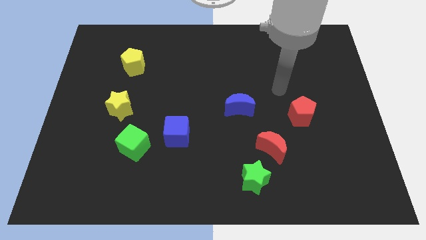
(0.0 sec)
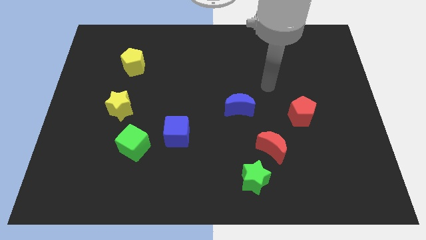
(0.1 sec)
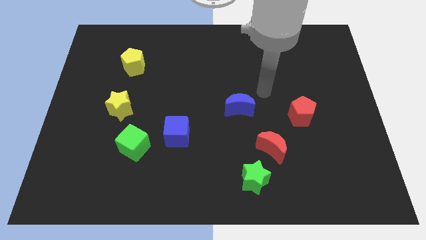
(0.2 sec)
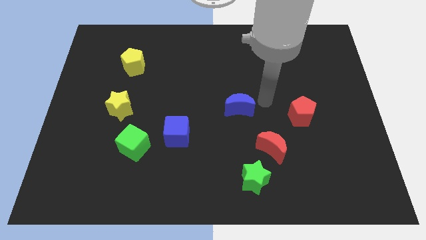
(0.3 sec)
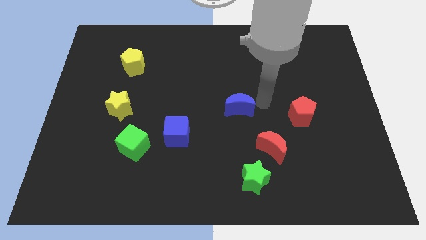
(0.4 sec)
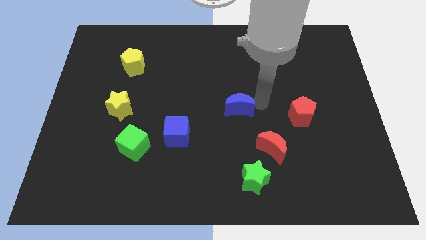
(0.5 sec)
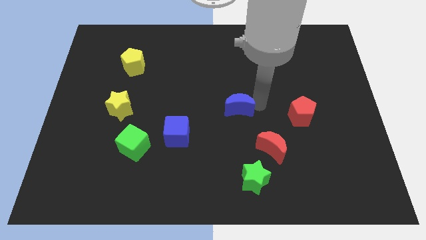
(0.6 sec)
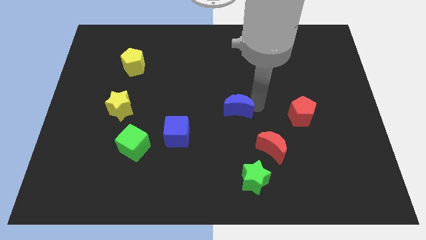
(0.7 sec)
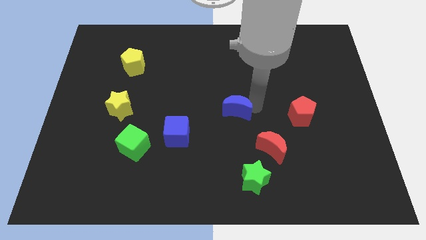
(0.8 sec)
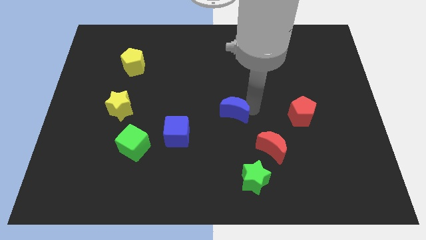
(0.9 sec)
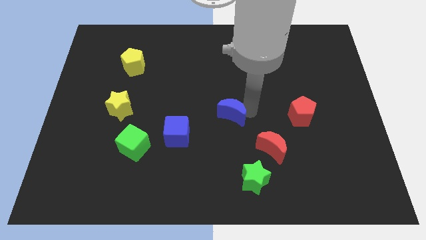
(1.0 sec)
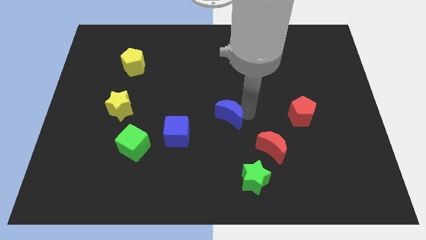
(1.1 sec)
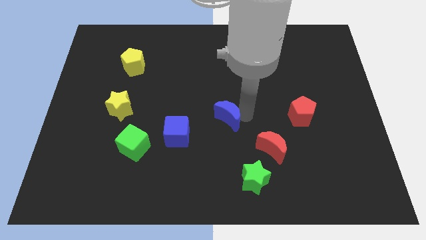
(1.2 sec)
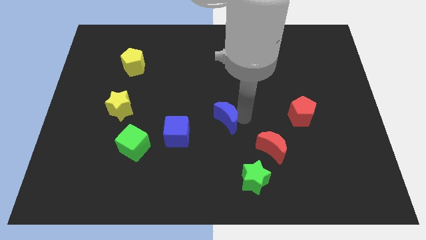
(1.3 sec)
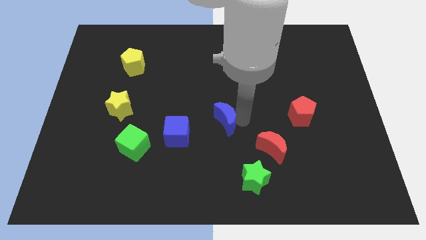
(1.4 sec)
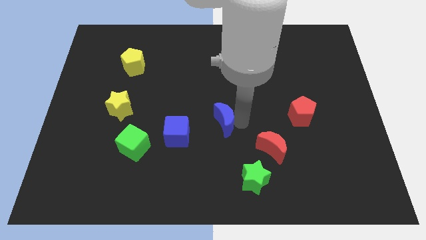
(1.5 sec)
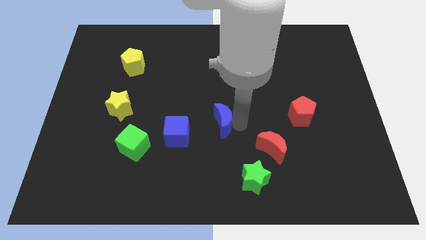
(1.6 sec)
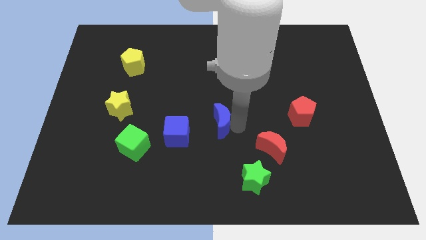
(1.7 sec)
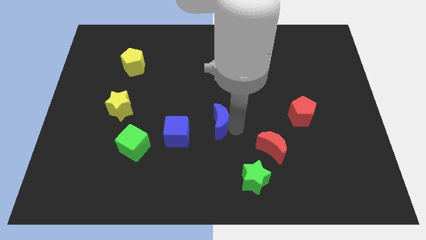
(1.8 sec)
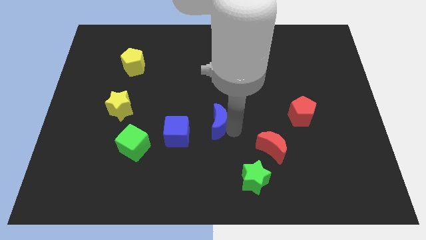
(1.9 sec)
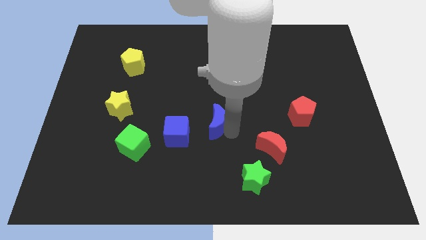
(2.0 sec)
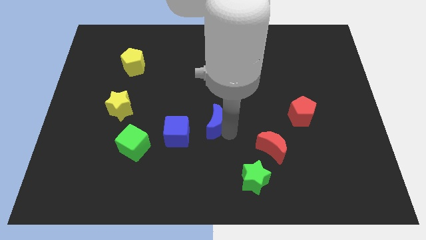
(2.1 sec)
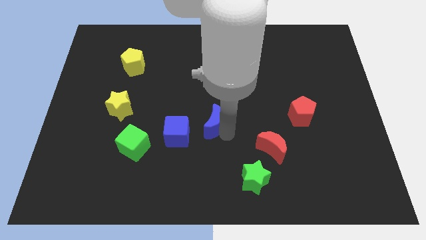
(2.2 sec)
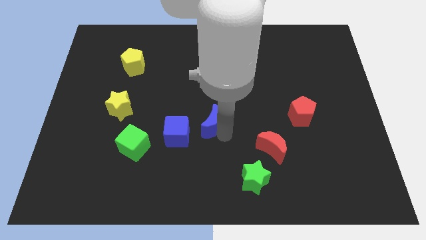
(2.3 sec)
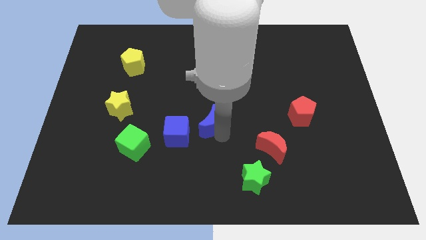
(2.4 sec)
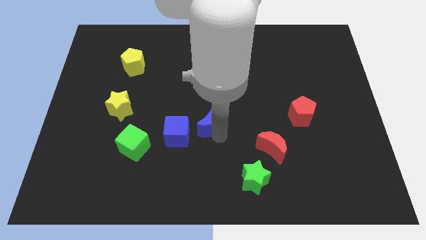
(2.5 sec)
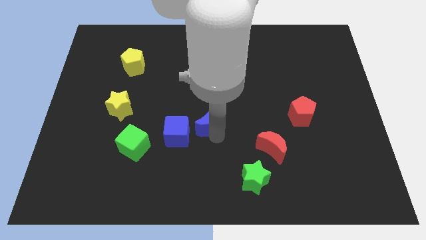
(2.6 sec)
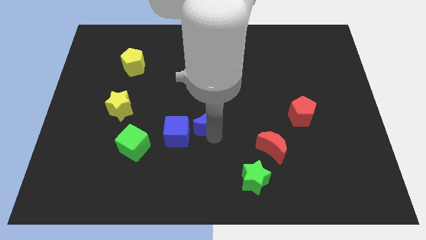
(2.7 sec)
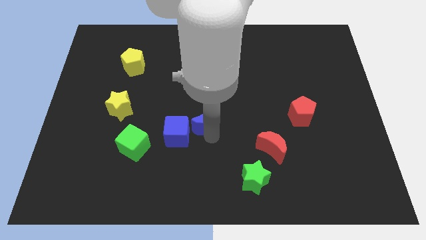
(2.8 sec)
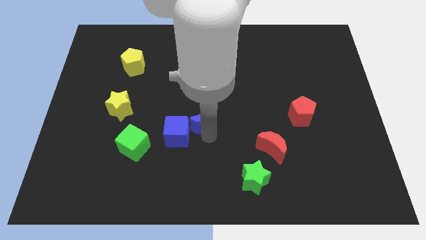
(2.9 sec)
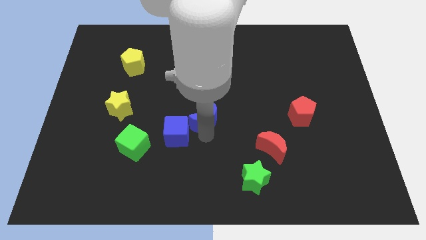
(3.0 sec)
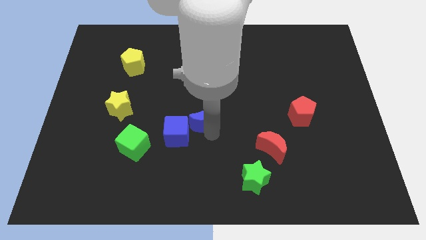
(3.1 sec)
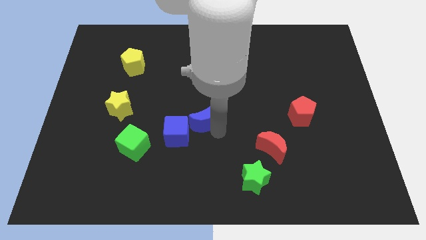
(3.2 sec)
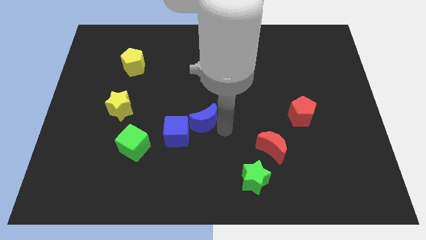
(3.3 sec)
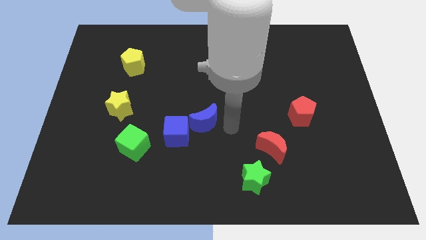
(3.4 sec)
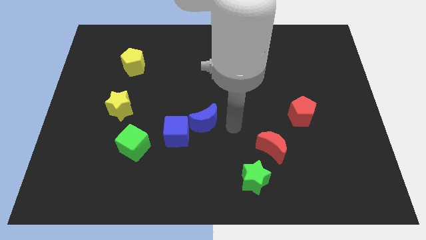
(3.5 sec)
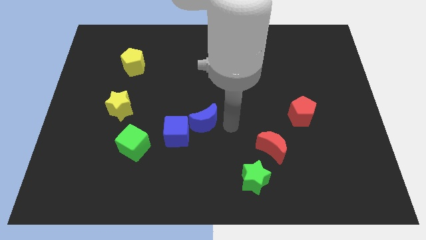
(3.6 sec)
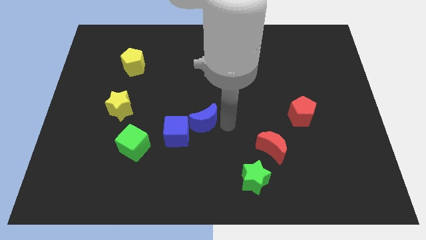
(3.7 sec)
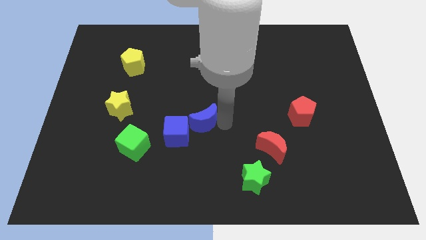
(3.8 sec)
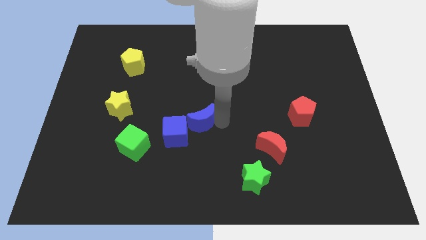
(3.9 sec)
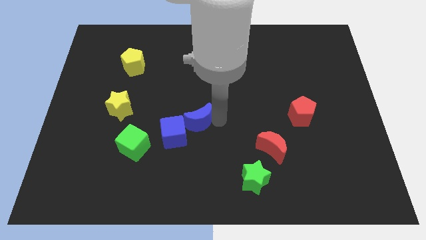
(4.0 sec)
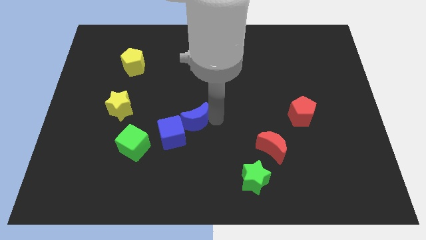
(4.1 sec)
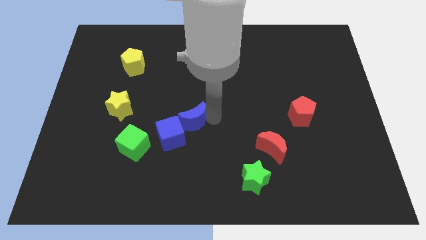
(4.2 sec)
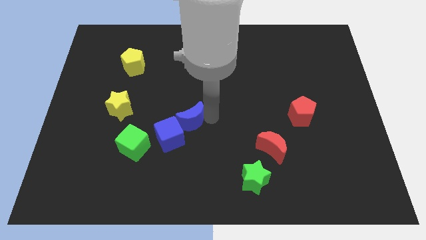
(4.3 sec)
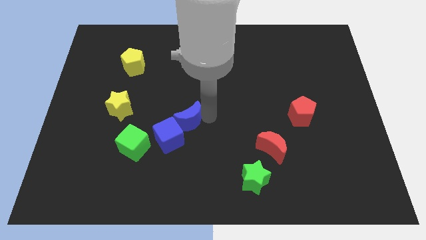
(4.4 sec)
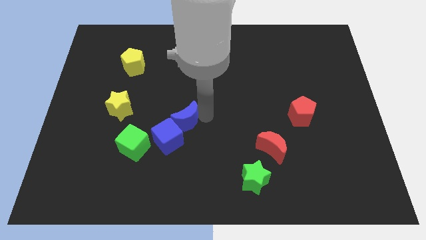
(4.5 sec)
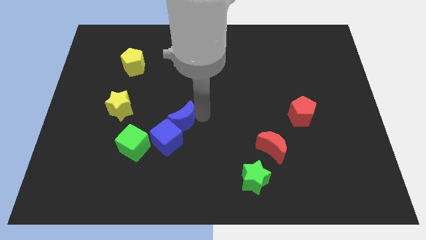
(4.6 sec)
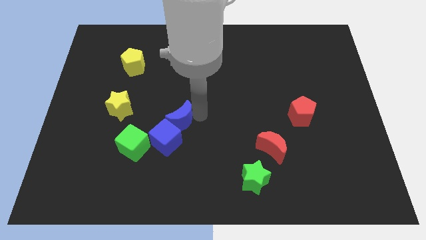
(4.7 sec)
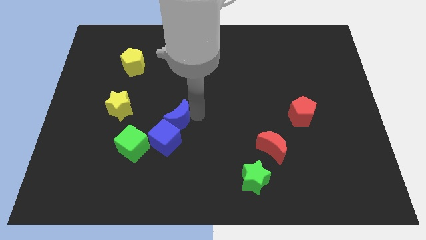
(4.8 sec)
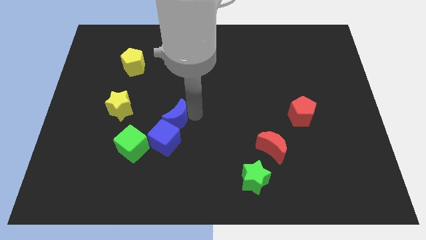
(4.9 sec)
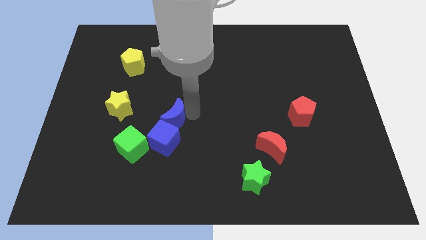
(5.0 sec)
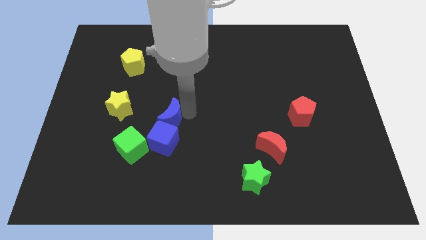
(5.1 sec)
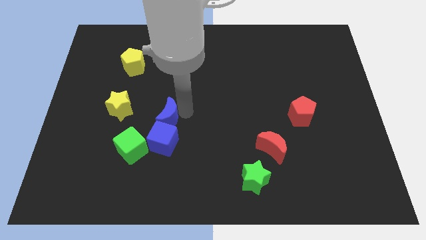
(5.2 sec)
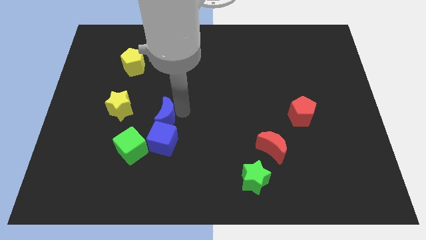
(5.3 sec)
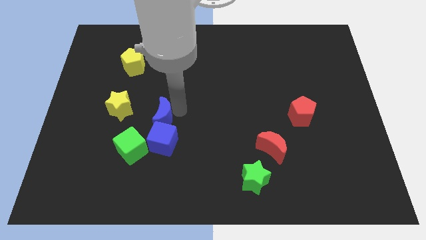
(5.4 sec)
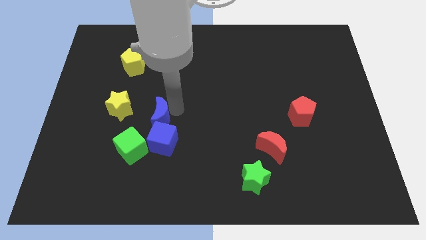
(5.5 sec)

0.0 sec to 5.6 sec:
put the blue moon to the bottom right side of the yellow star

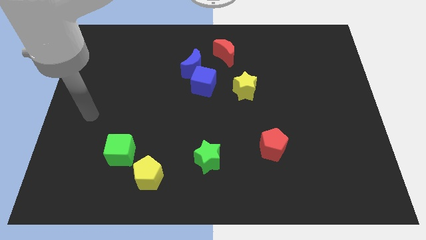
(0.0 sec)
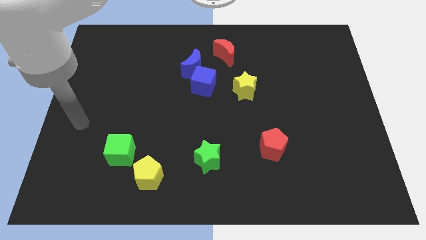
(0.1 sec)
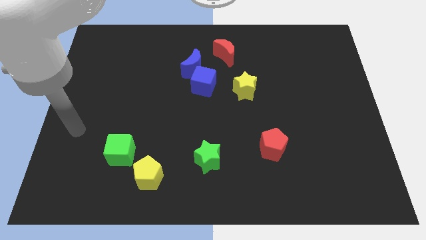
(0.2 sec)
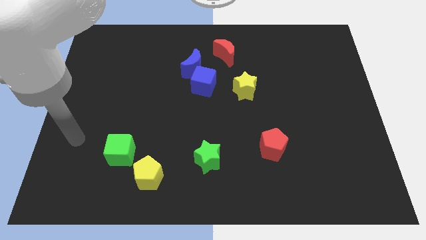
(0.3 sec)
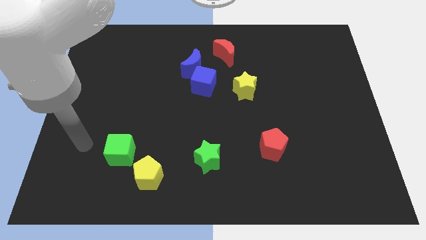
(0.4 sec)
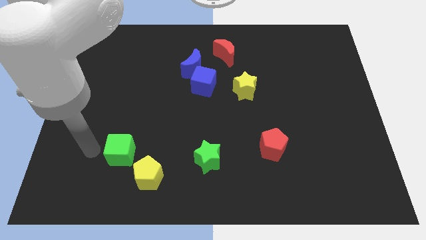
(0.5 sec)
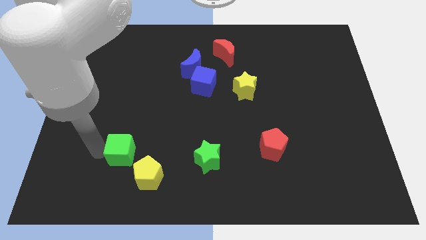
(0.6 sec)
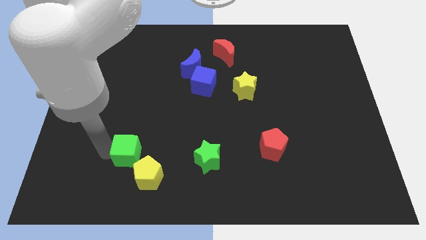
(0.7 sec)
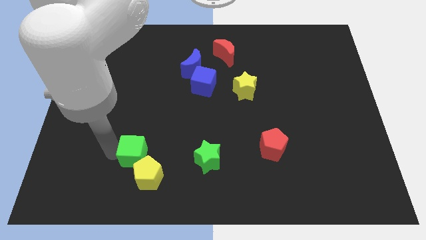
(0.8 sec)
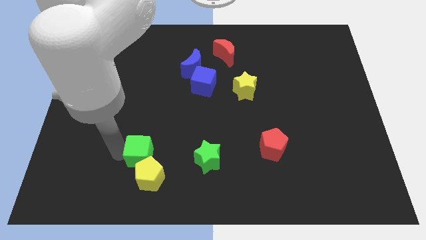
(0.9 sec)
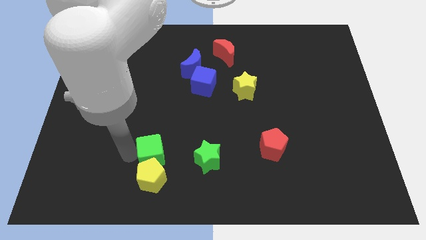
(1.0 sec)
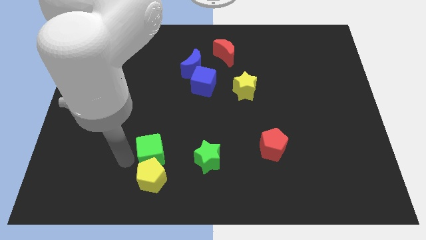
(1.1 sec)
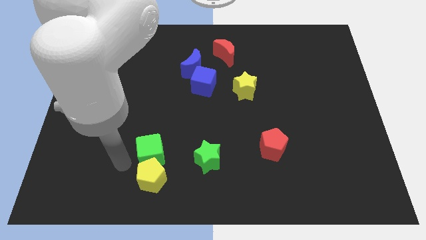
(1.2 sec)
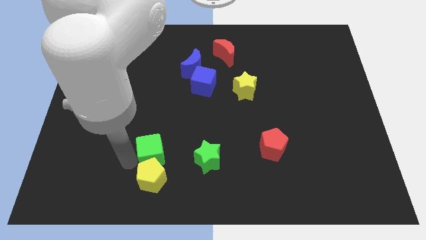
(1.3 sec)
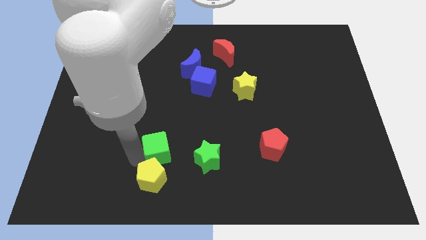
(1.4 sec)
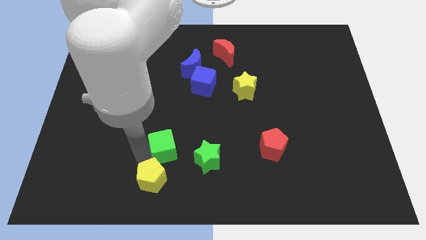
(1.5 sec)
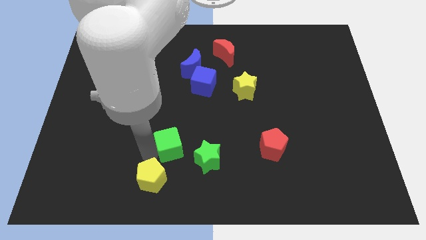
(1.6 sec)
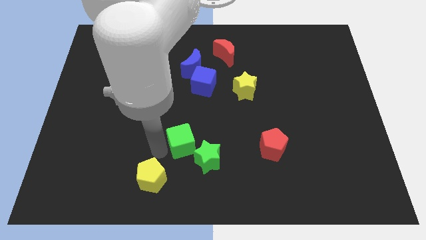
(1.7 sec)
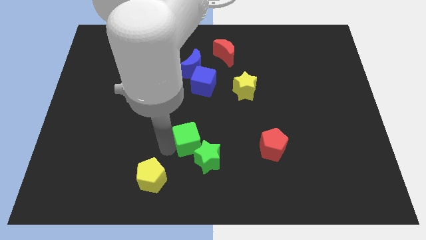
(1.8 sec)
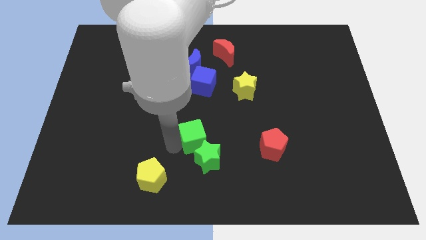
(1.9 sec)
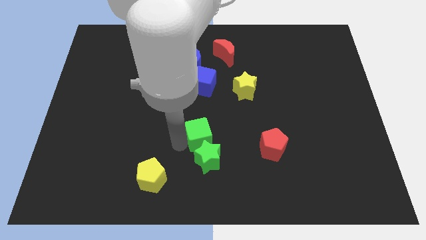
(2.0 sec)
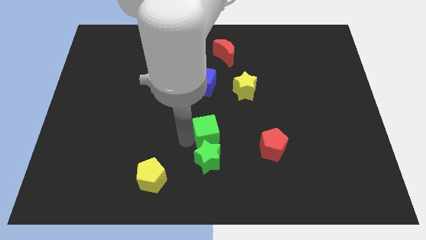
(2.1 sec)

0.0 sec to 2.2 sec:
move the green cube just left of the red pentagon
